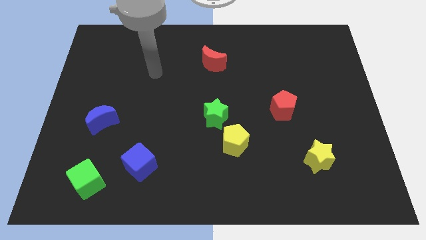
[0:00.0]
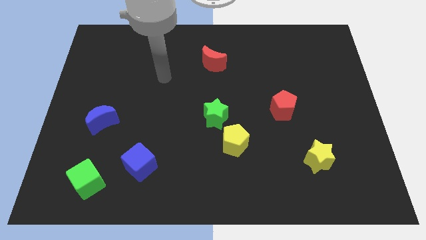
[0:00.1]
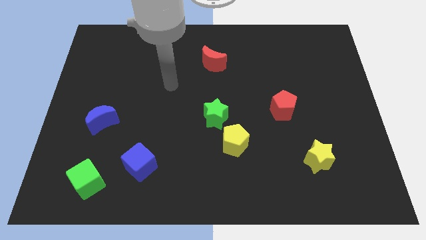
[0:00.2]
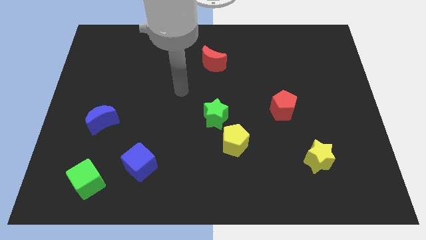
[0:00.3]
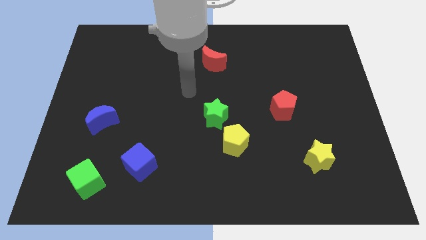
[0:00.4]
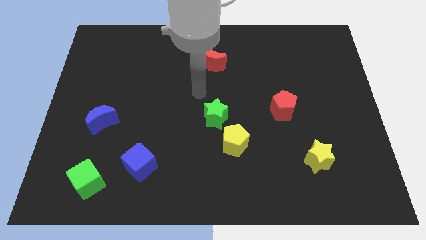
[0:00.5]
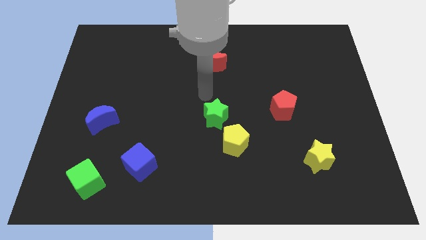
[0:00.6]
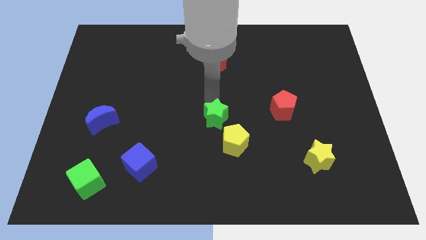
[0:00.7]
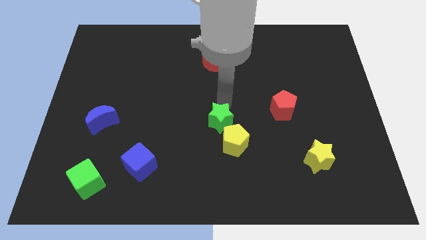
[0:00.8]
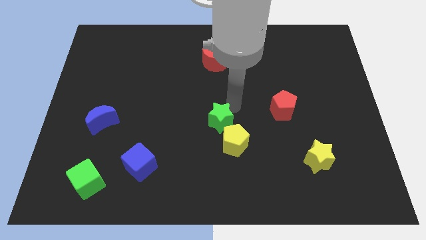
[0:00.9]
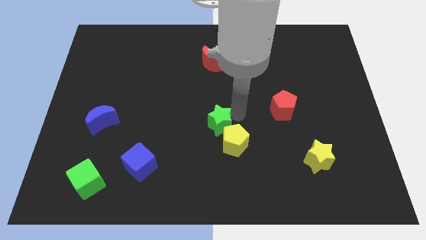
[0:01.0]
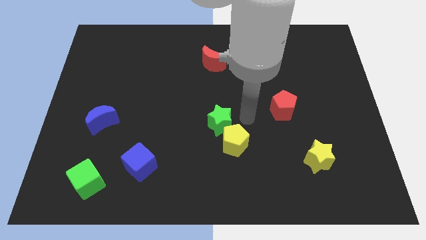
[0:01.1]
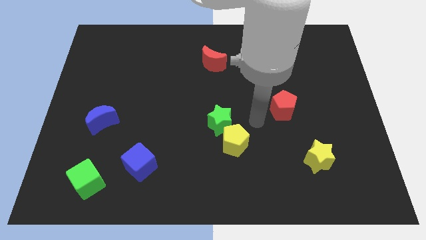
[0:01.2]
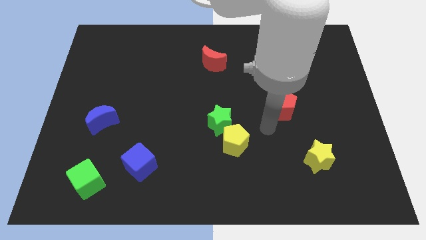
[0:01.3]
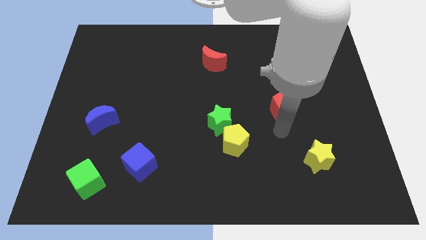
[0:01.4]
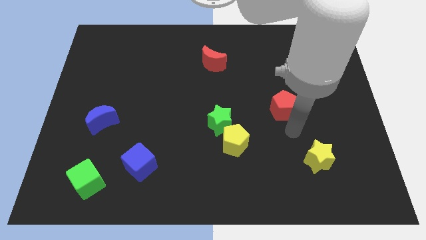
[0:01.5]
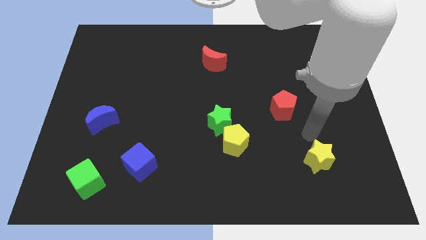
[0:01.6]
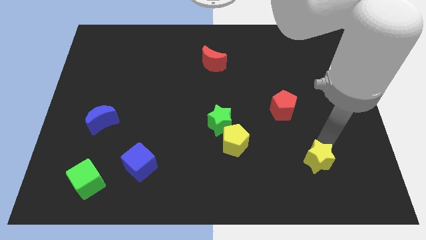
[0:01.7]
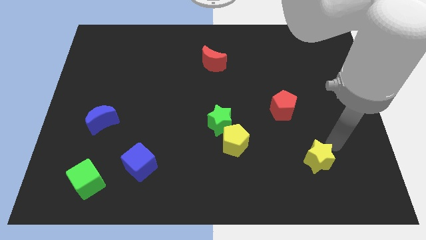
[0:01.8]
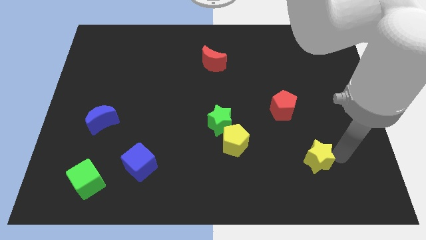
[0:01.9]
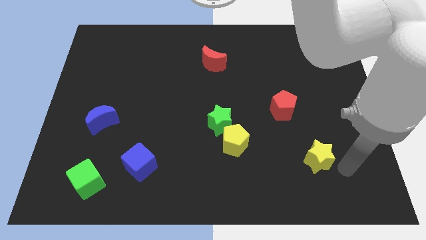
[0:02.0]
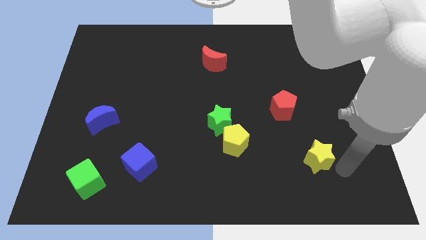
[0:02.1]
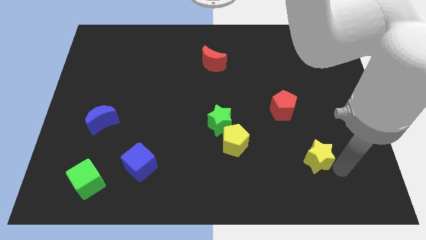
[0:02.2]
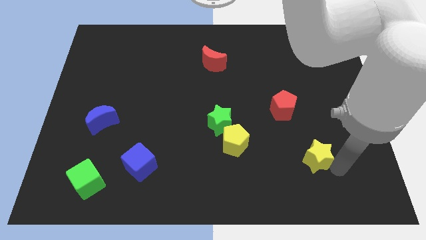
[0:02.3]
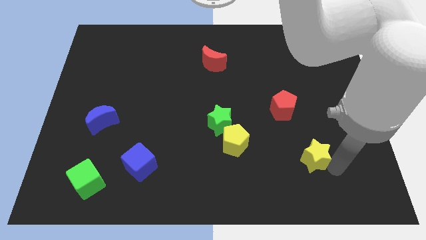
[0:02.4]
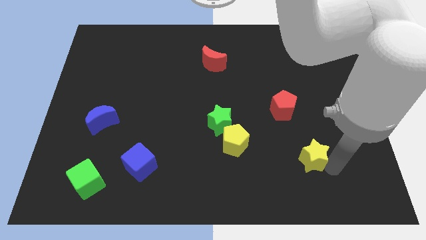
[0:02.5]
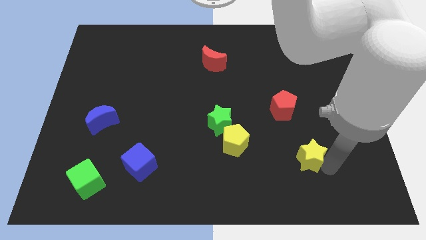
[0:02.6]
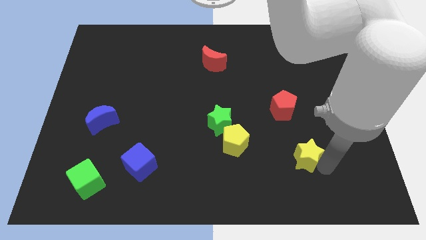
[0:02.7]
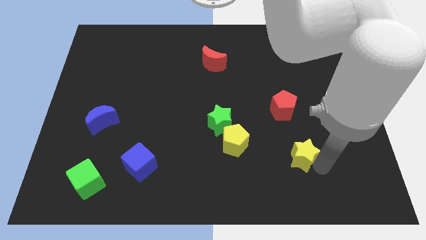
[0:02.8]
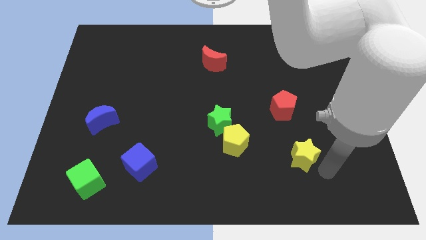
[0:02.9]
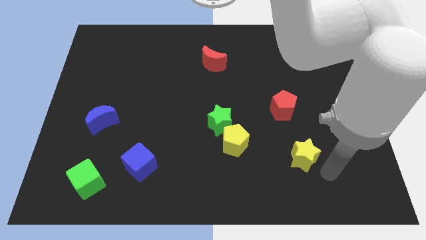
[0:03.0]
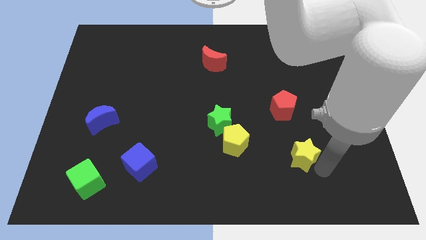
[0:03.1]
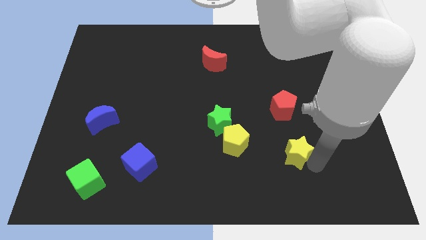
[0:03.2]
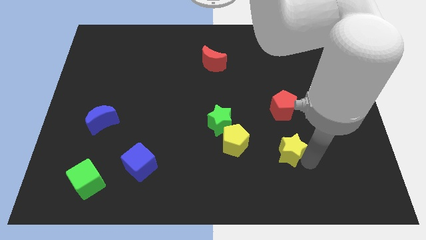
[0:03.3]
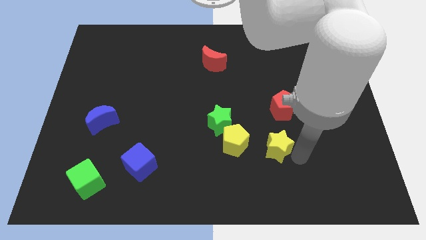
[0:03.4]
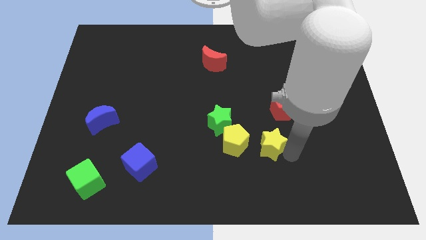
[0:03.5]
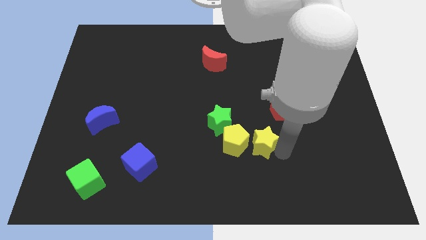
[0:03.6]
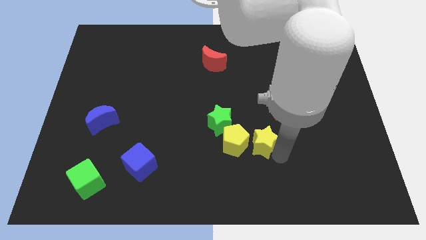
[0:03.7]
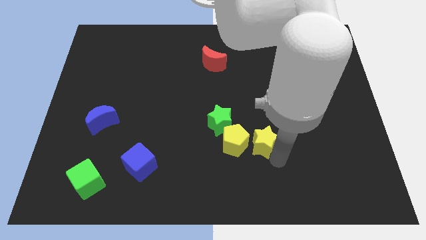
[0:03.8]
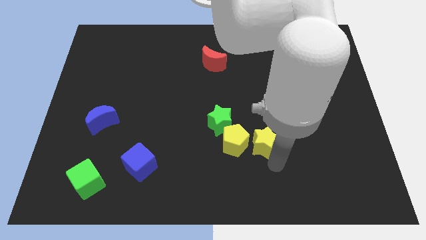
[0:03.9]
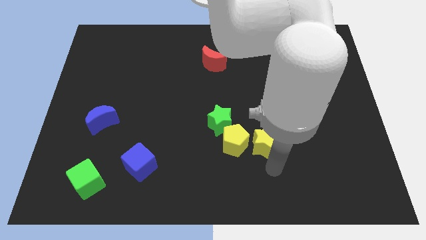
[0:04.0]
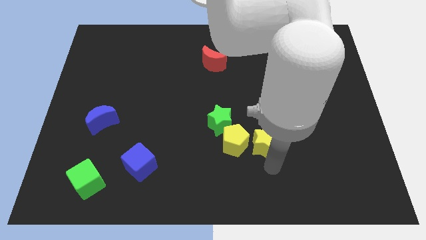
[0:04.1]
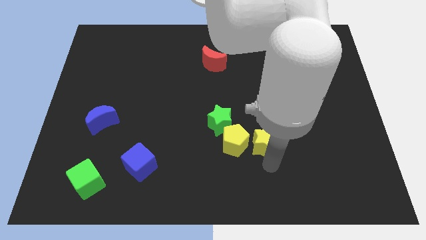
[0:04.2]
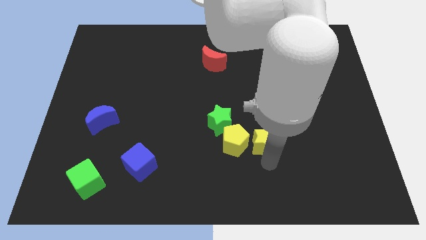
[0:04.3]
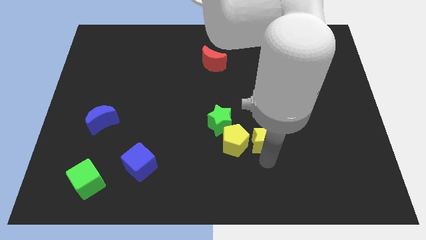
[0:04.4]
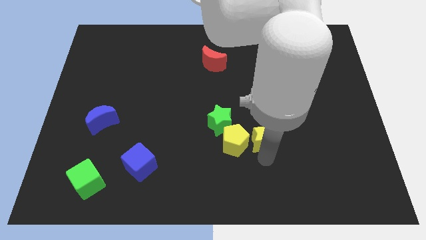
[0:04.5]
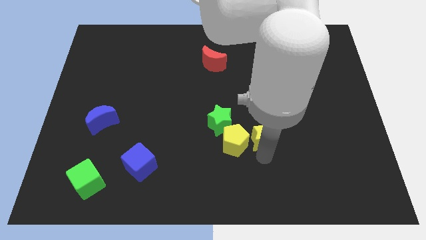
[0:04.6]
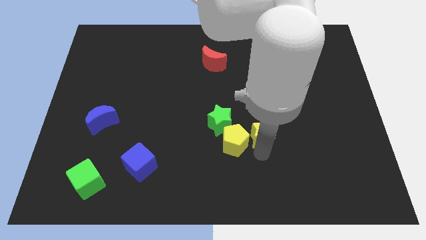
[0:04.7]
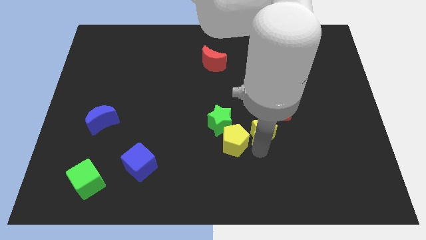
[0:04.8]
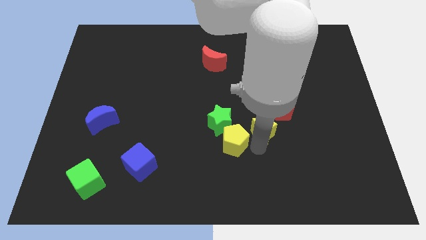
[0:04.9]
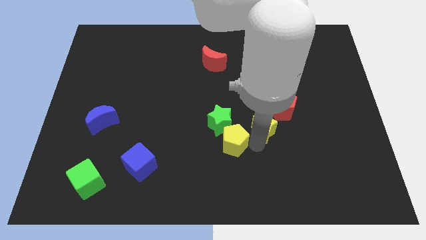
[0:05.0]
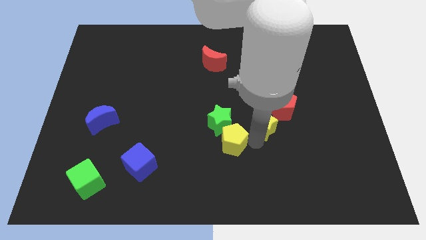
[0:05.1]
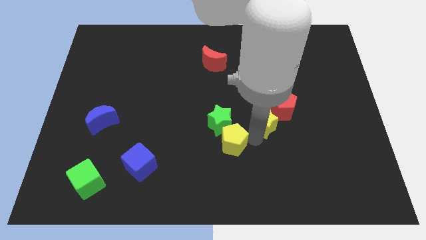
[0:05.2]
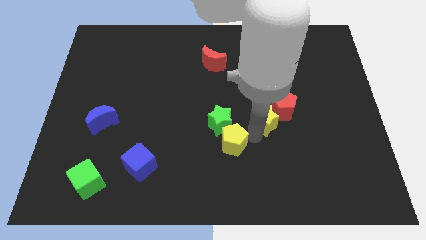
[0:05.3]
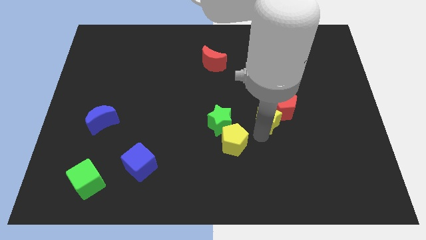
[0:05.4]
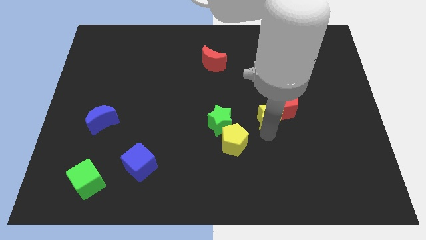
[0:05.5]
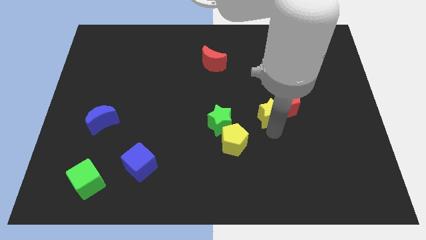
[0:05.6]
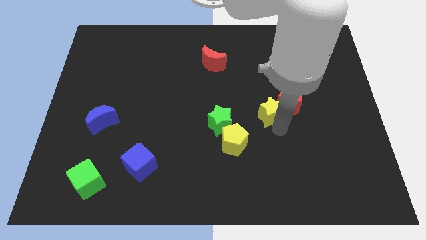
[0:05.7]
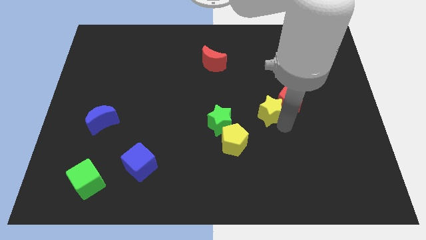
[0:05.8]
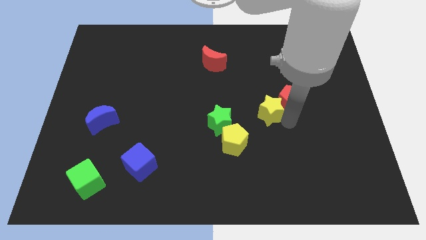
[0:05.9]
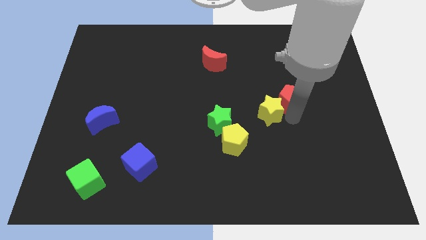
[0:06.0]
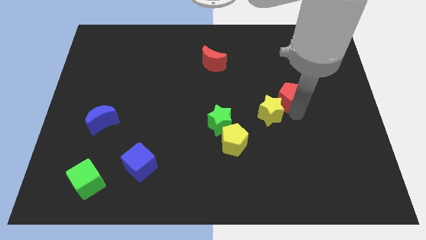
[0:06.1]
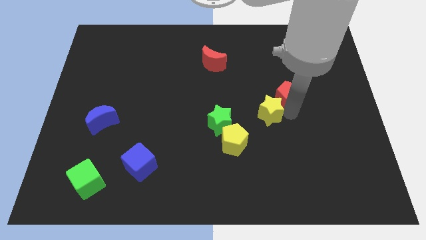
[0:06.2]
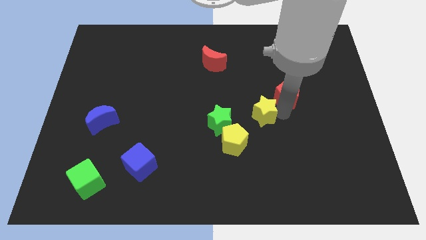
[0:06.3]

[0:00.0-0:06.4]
slide the yellow star to the center
